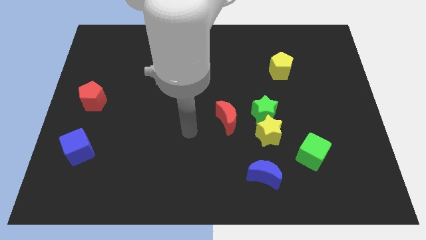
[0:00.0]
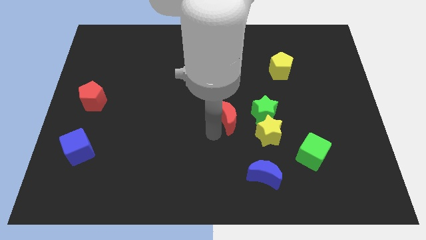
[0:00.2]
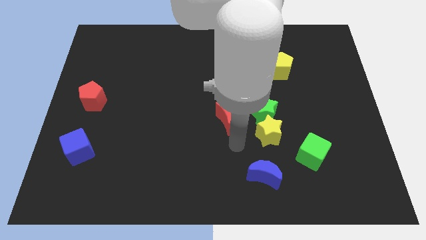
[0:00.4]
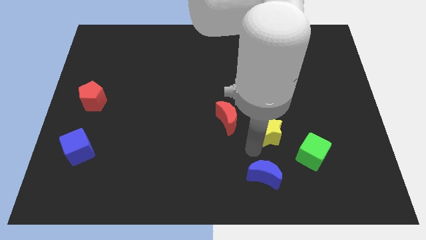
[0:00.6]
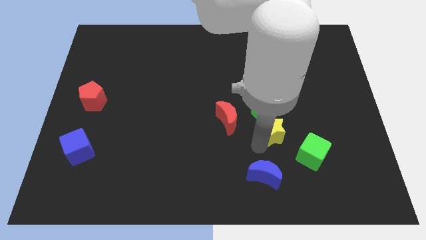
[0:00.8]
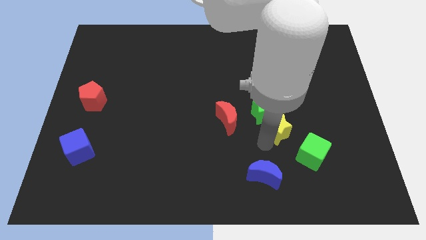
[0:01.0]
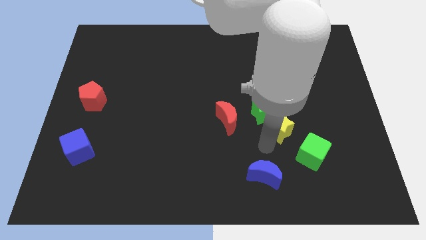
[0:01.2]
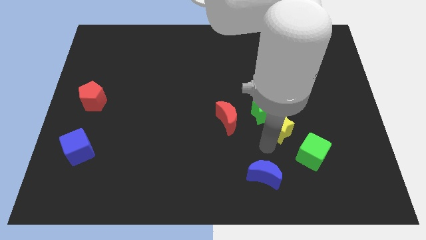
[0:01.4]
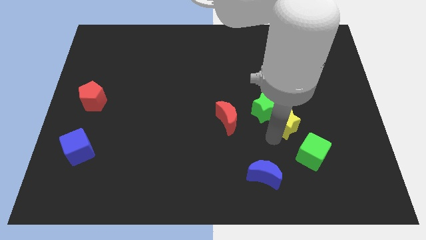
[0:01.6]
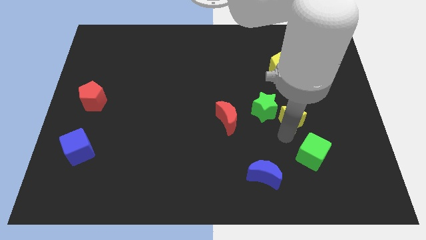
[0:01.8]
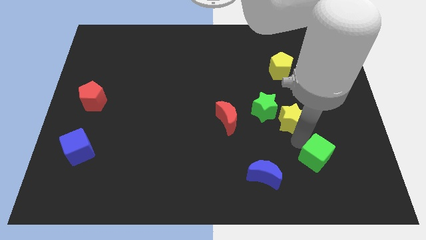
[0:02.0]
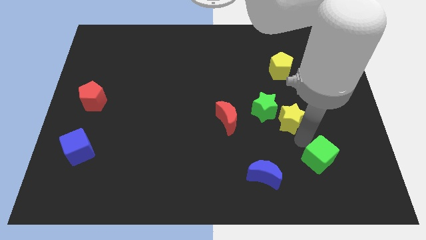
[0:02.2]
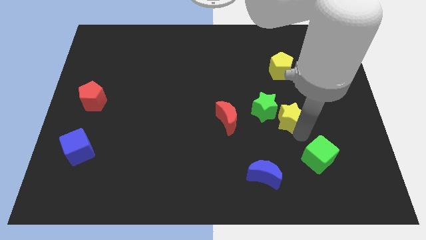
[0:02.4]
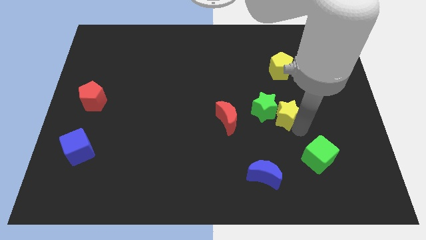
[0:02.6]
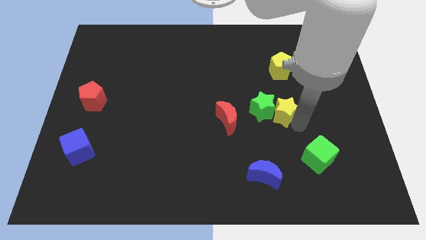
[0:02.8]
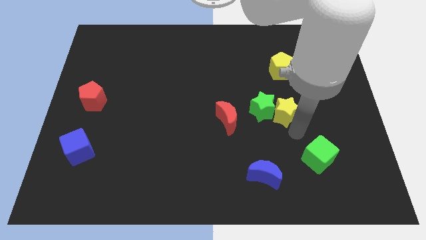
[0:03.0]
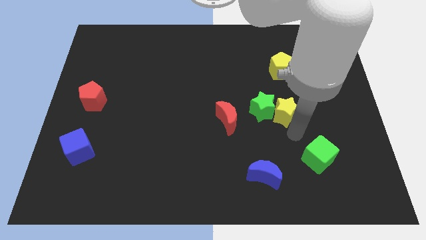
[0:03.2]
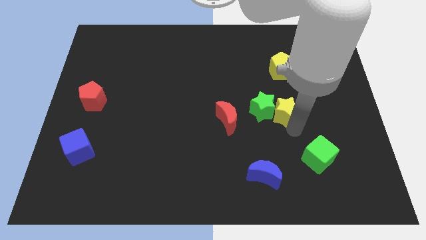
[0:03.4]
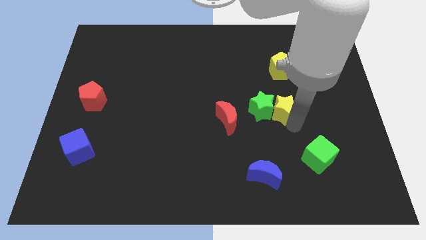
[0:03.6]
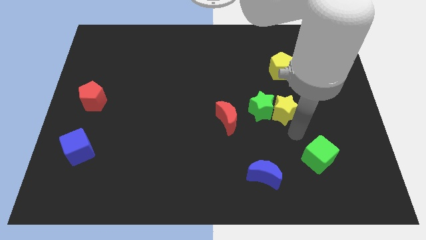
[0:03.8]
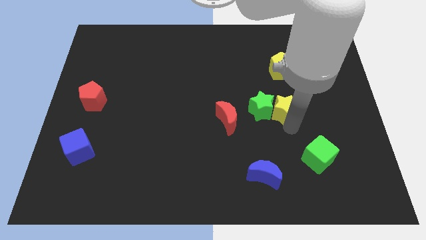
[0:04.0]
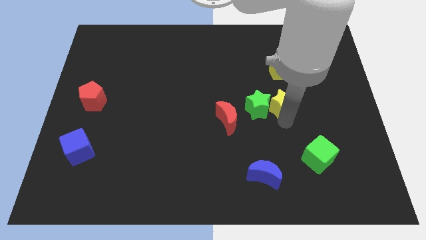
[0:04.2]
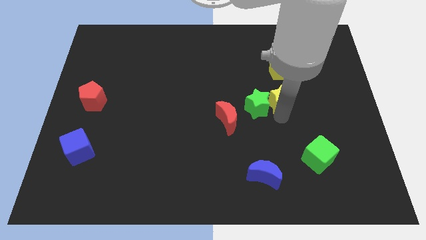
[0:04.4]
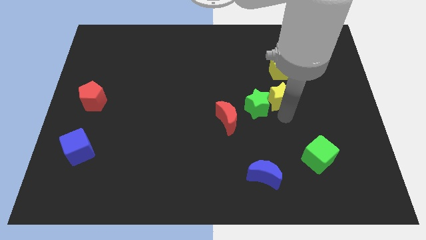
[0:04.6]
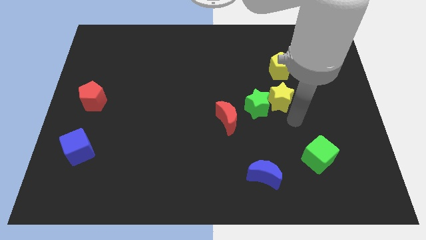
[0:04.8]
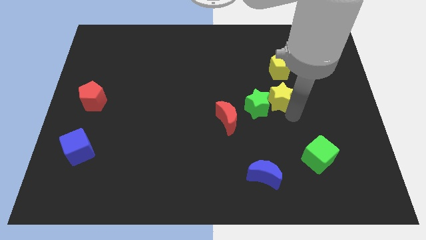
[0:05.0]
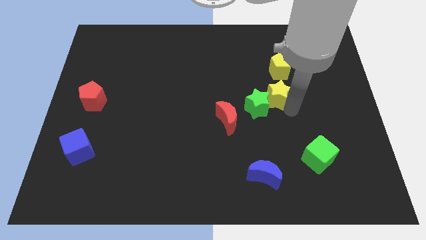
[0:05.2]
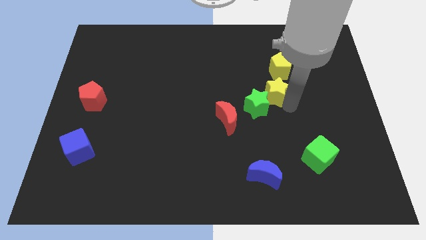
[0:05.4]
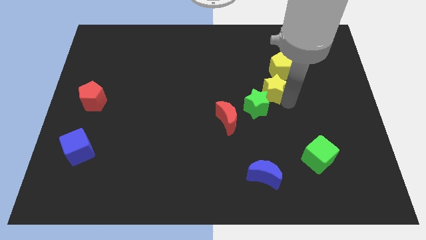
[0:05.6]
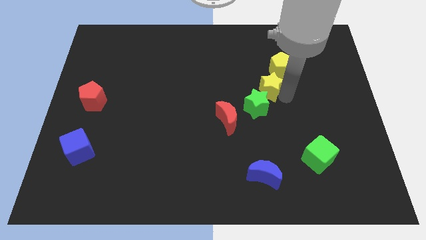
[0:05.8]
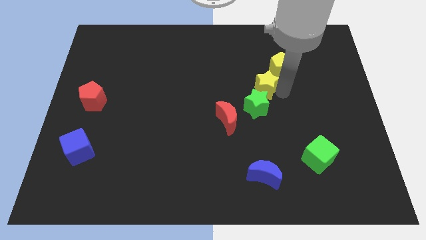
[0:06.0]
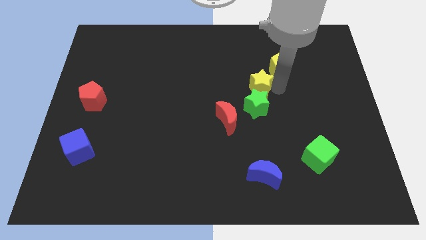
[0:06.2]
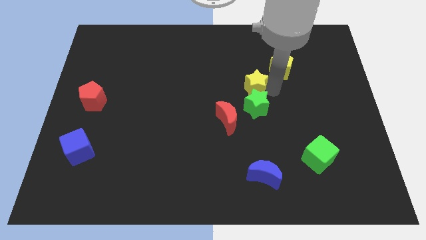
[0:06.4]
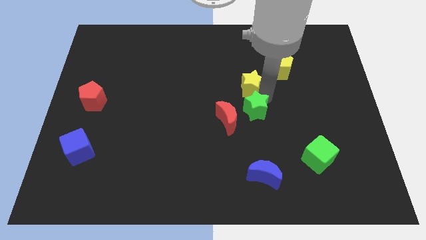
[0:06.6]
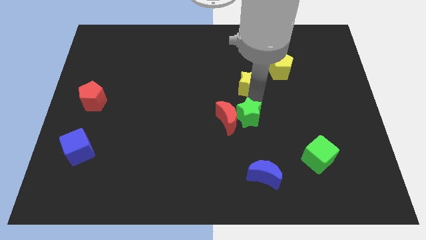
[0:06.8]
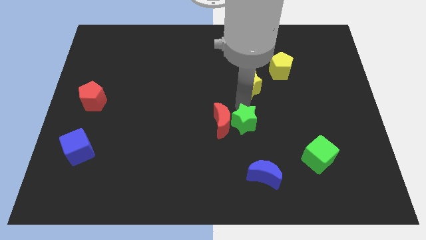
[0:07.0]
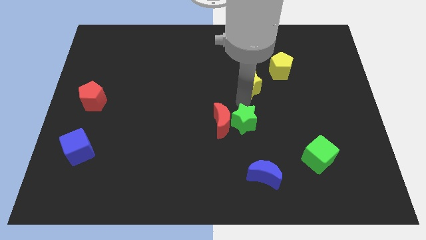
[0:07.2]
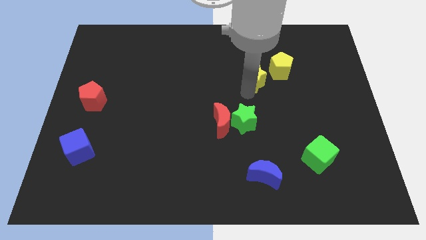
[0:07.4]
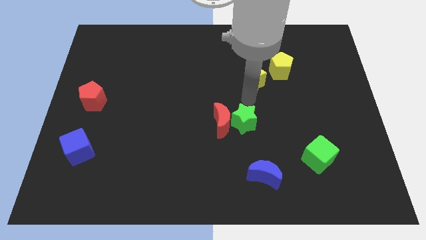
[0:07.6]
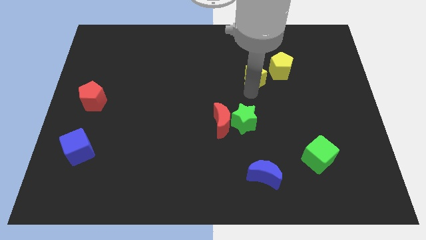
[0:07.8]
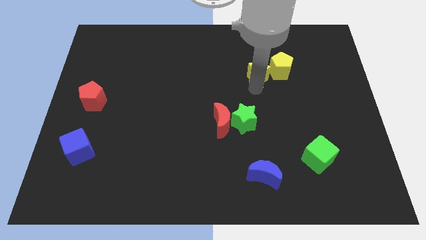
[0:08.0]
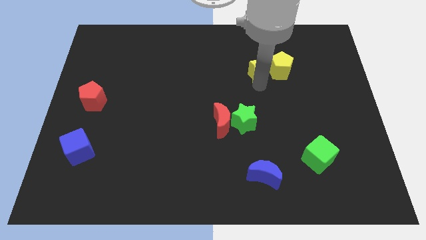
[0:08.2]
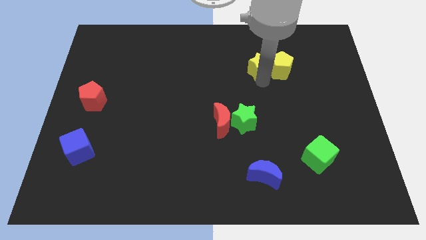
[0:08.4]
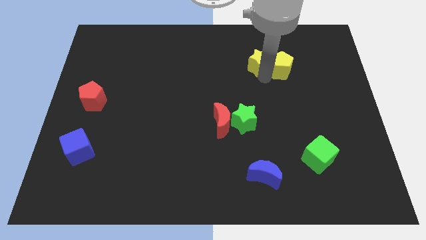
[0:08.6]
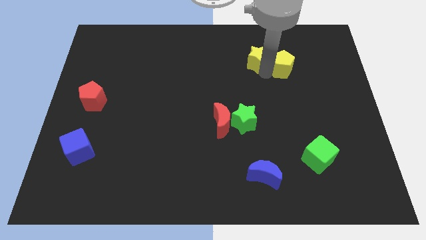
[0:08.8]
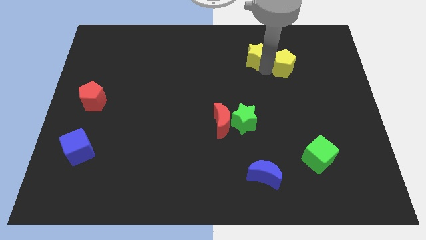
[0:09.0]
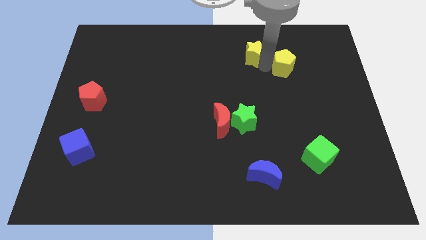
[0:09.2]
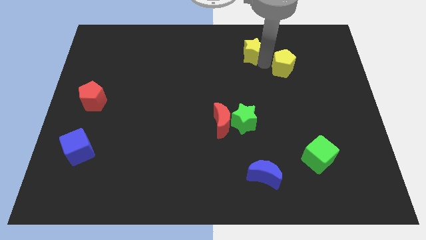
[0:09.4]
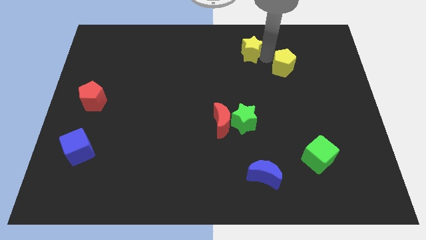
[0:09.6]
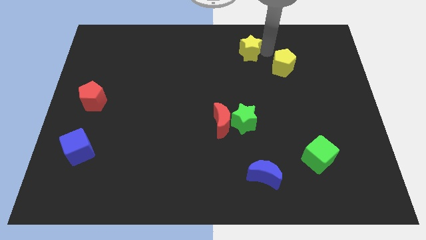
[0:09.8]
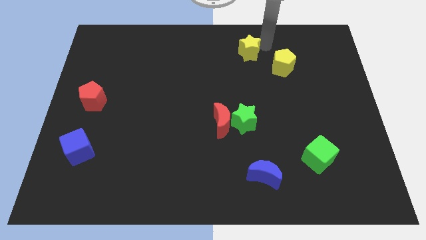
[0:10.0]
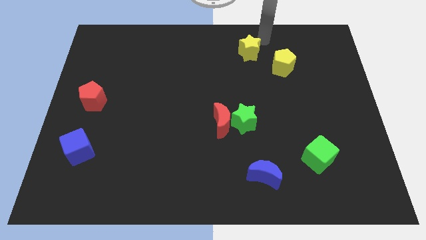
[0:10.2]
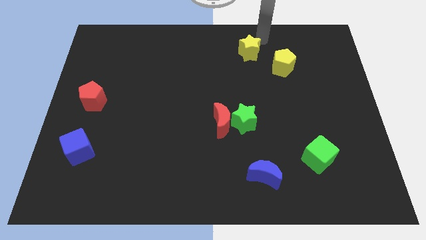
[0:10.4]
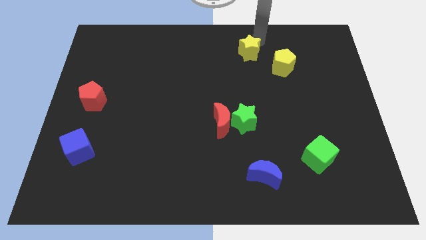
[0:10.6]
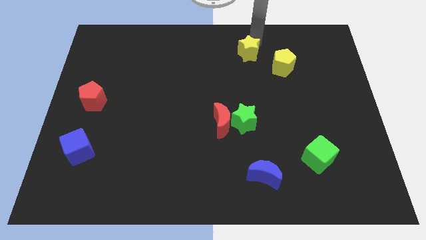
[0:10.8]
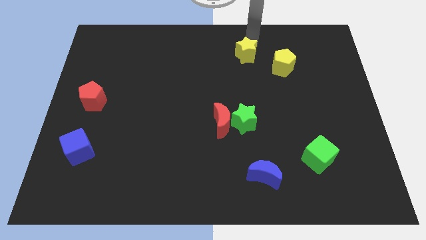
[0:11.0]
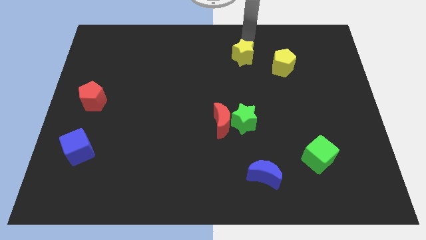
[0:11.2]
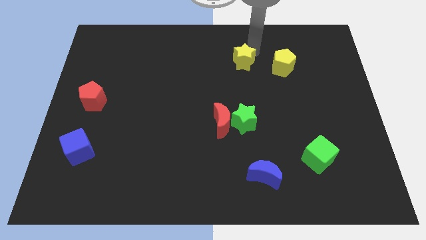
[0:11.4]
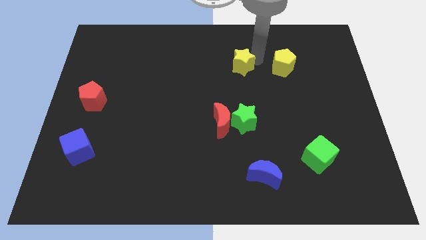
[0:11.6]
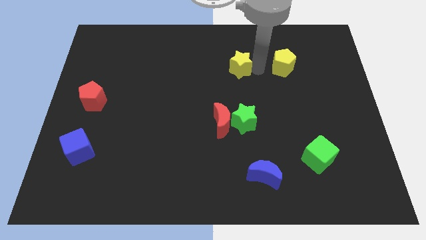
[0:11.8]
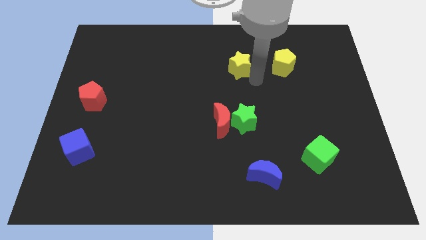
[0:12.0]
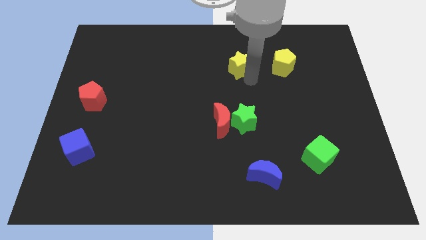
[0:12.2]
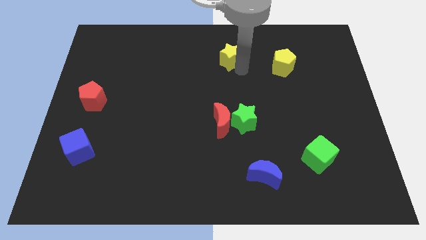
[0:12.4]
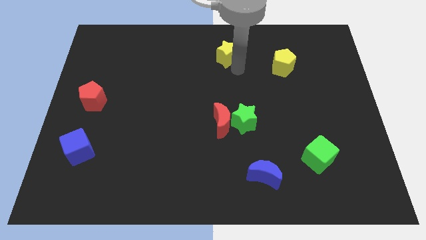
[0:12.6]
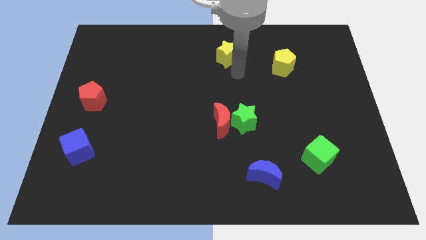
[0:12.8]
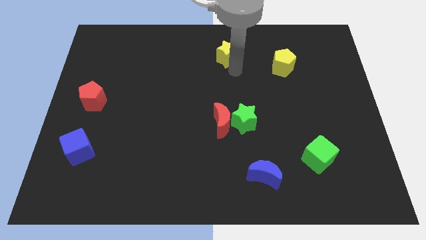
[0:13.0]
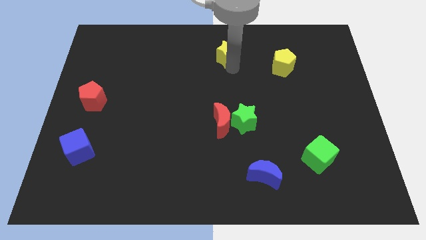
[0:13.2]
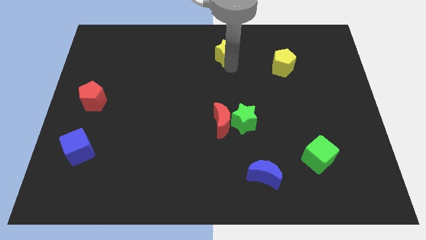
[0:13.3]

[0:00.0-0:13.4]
slide the yellow star to the top side
